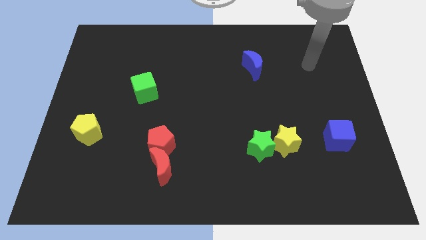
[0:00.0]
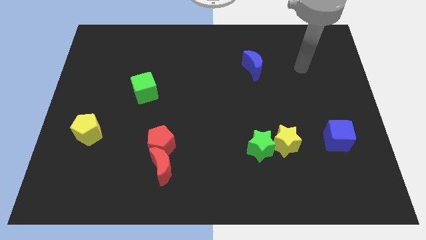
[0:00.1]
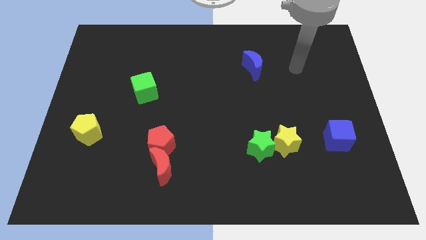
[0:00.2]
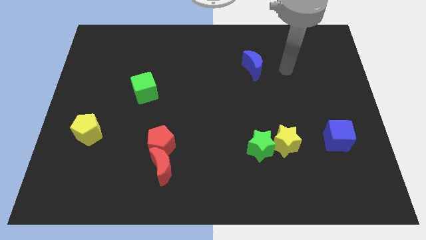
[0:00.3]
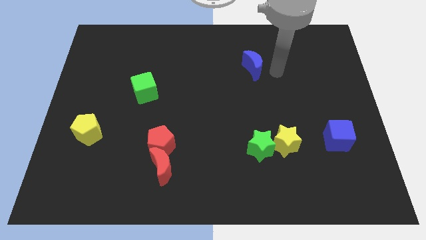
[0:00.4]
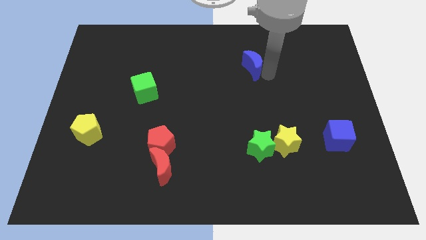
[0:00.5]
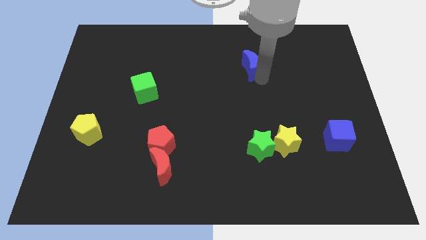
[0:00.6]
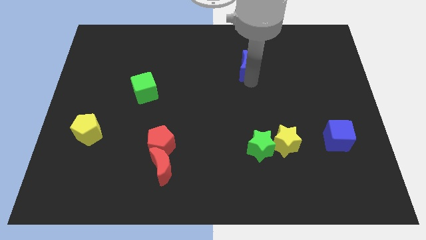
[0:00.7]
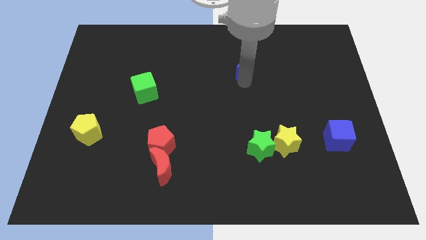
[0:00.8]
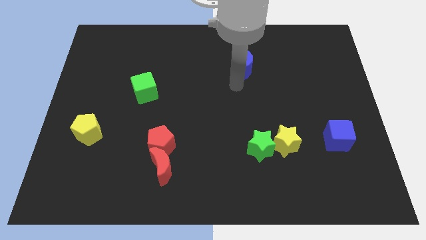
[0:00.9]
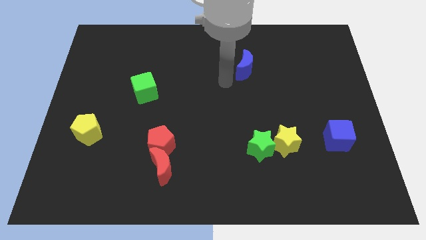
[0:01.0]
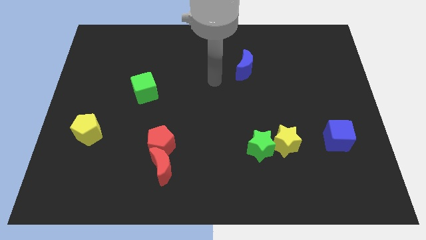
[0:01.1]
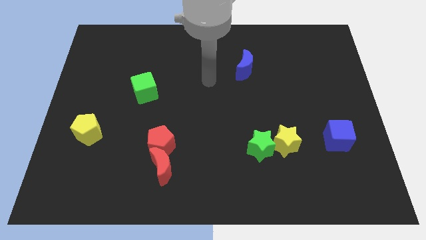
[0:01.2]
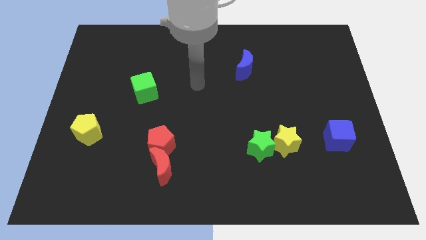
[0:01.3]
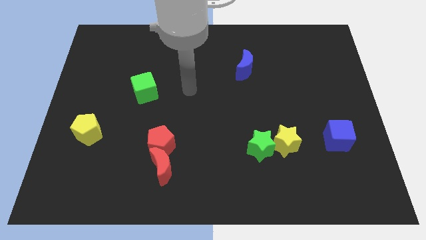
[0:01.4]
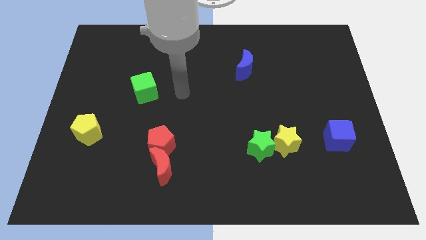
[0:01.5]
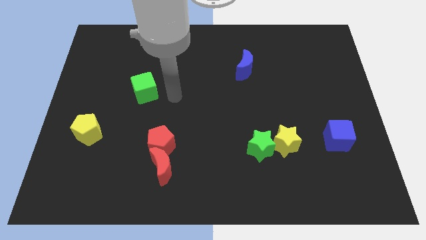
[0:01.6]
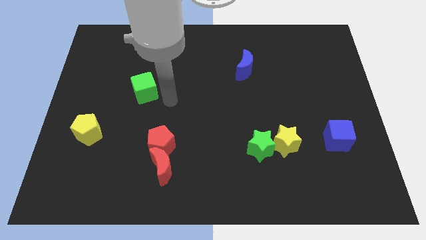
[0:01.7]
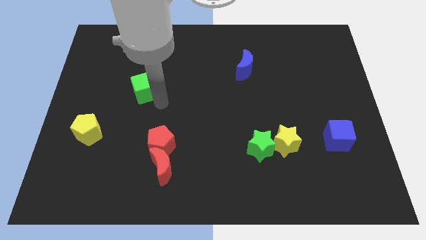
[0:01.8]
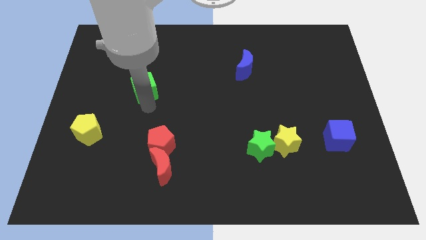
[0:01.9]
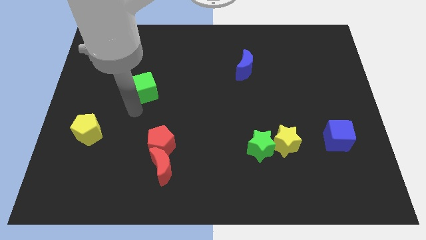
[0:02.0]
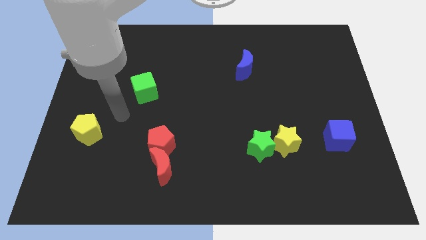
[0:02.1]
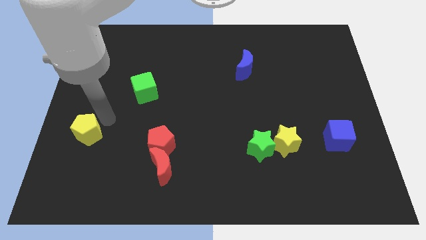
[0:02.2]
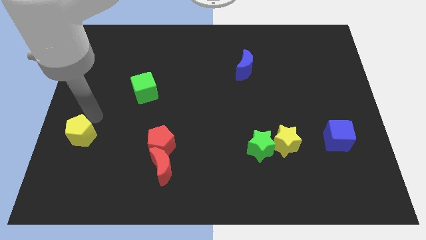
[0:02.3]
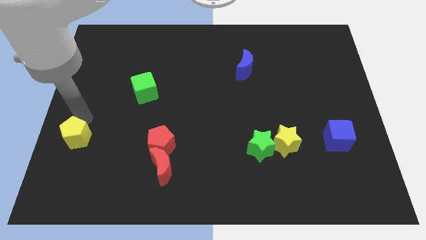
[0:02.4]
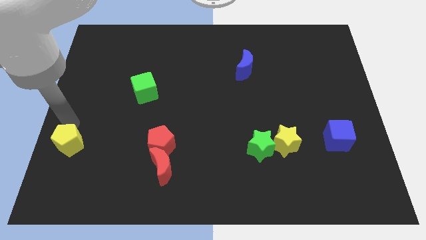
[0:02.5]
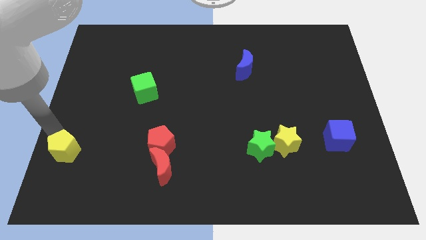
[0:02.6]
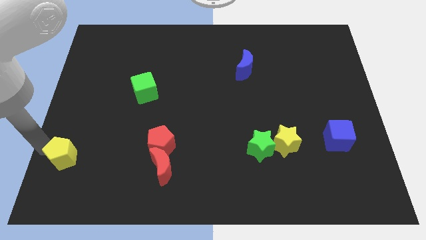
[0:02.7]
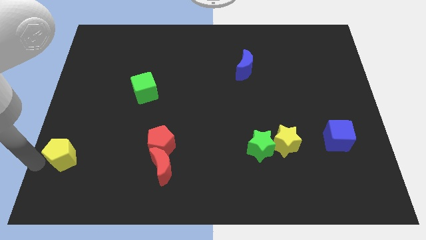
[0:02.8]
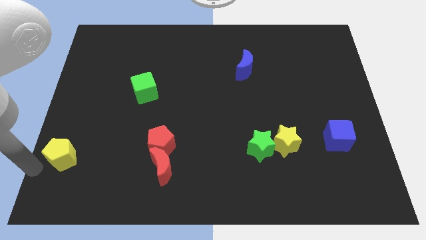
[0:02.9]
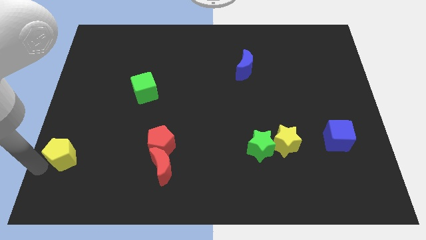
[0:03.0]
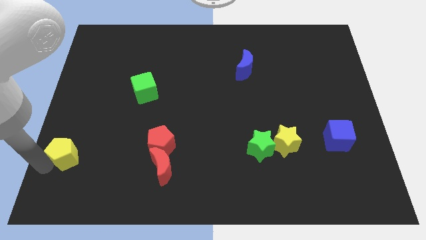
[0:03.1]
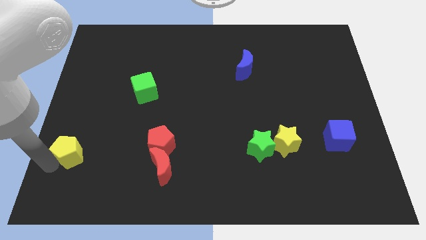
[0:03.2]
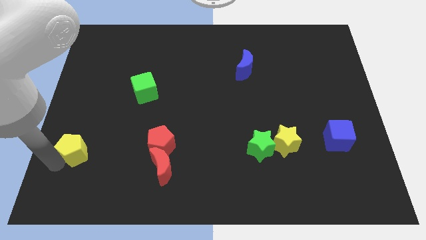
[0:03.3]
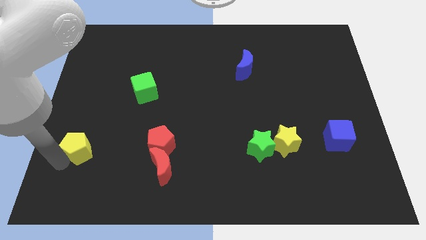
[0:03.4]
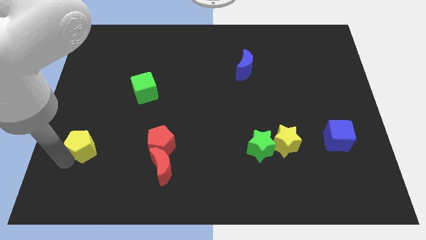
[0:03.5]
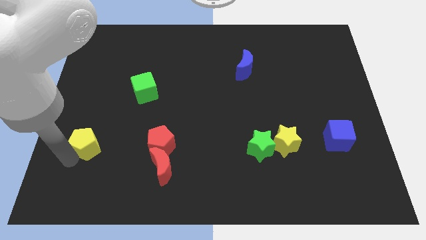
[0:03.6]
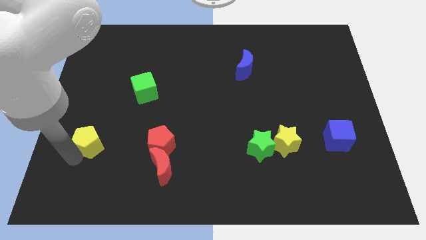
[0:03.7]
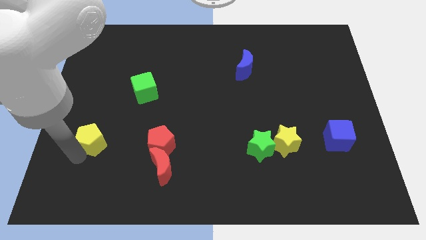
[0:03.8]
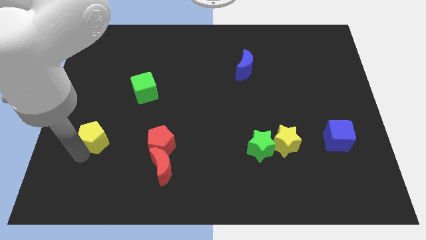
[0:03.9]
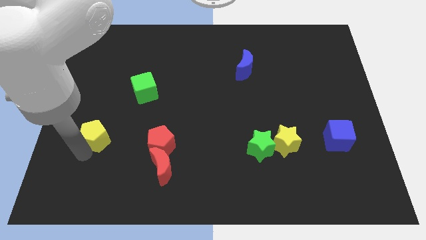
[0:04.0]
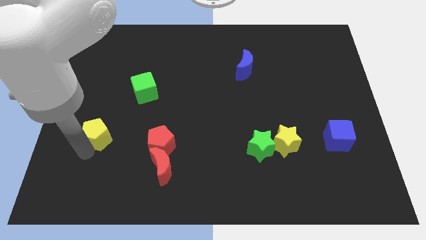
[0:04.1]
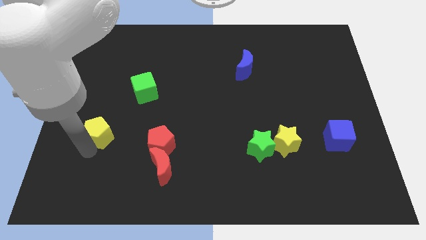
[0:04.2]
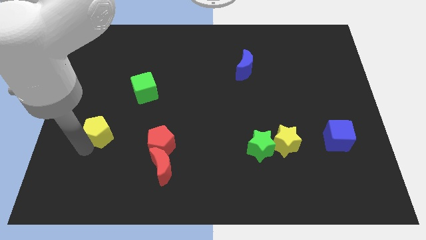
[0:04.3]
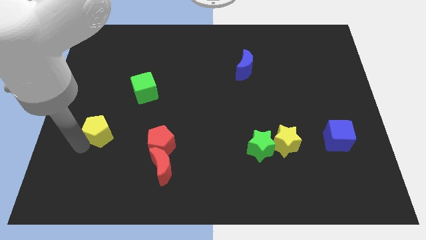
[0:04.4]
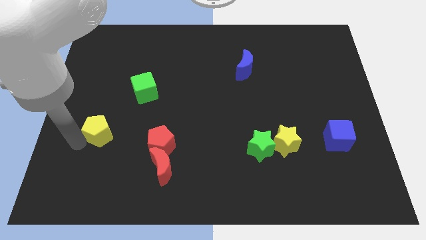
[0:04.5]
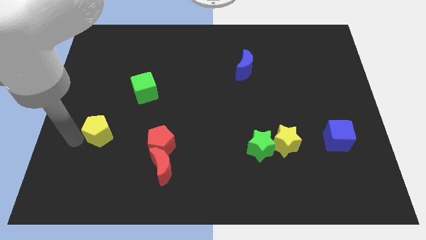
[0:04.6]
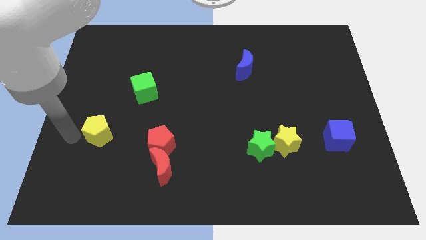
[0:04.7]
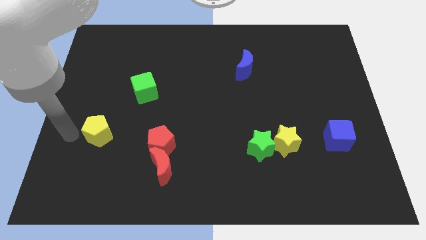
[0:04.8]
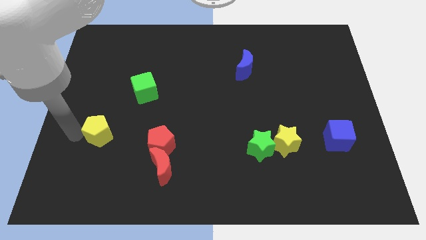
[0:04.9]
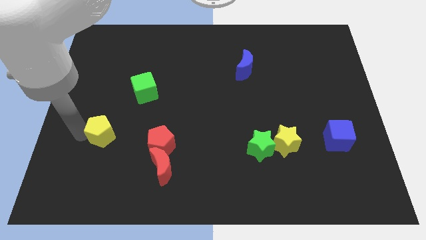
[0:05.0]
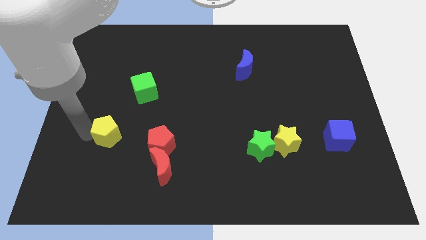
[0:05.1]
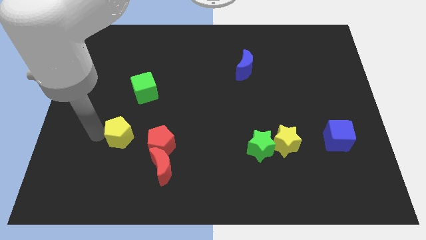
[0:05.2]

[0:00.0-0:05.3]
slightly move the yellow pentagon to the right

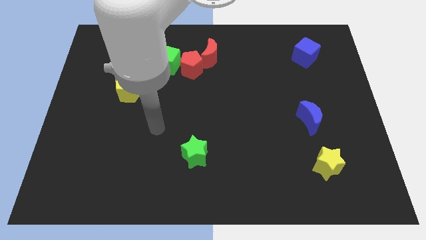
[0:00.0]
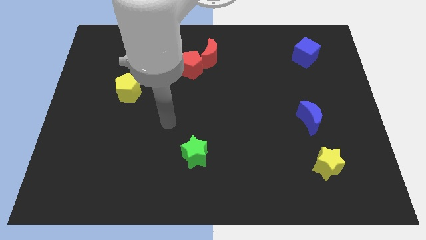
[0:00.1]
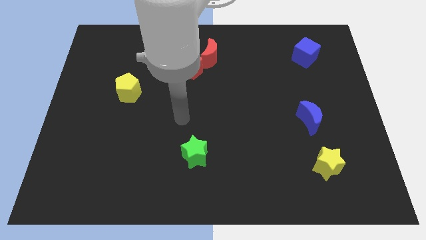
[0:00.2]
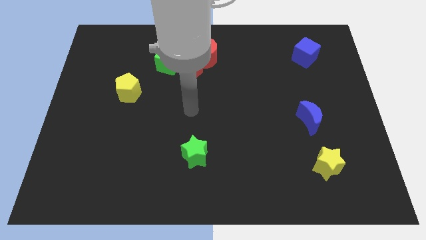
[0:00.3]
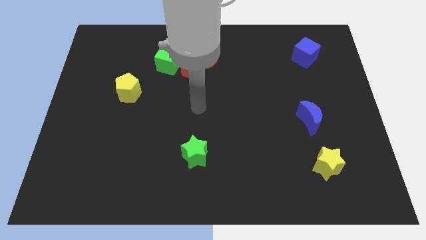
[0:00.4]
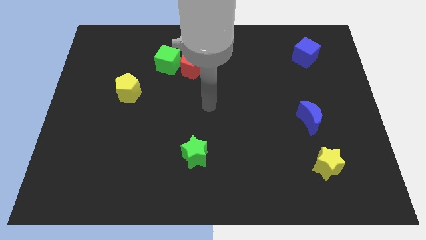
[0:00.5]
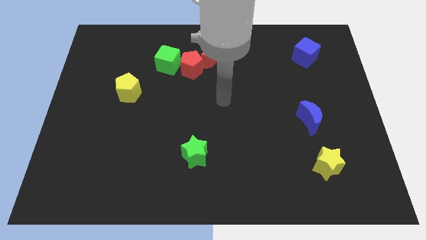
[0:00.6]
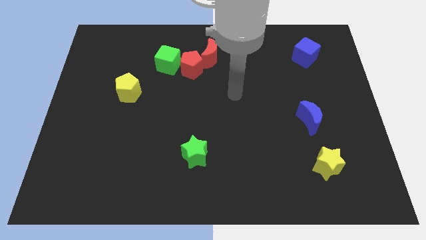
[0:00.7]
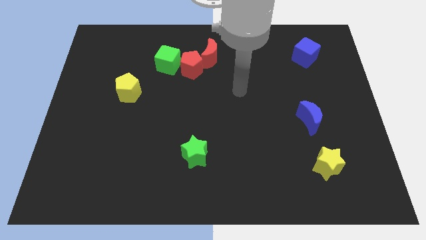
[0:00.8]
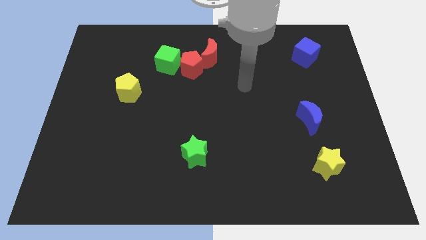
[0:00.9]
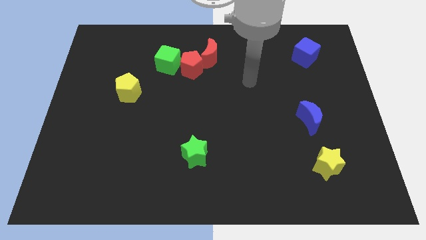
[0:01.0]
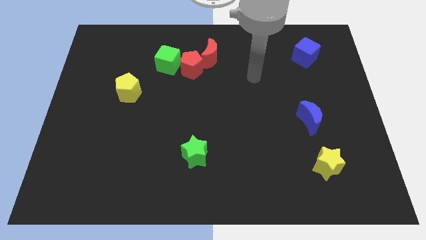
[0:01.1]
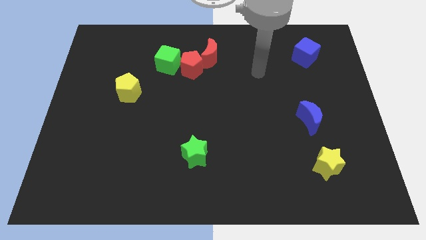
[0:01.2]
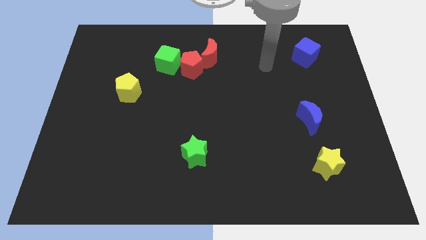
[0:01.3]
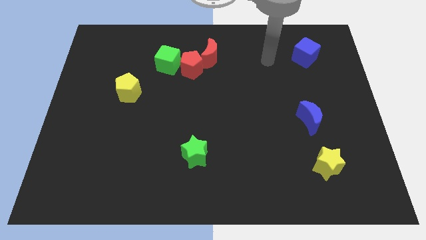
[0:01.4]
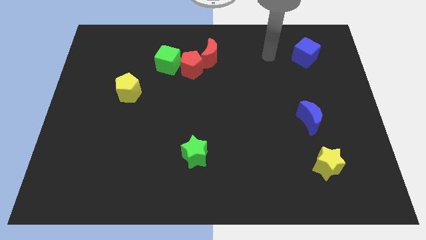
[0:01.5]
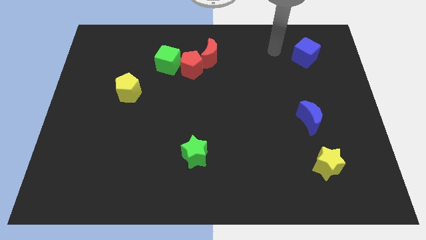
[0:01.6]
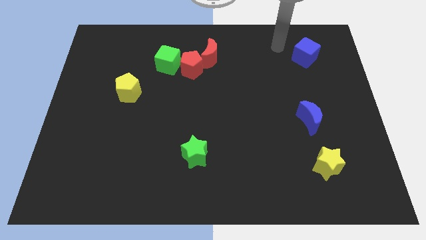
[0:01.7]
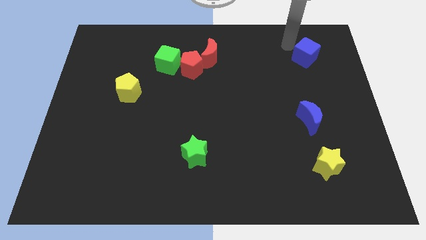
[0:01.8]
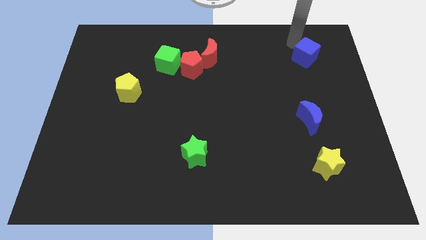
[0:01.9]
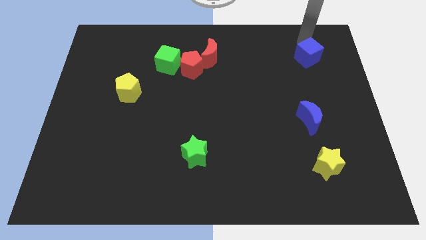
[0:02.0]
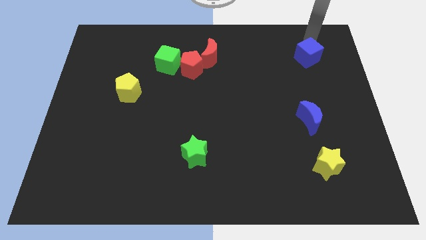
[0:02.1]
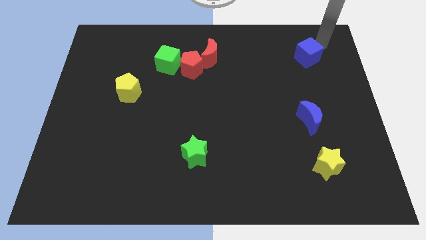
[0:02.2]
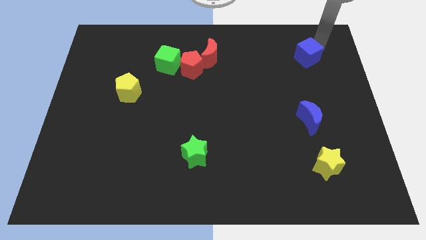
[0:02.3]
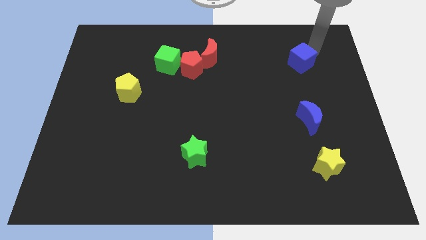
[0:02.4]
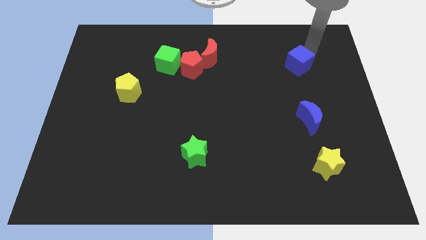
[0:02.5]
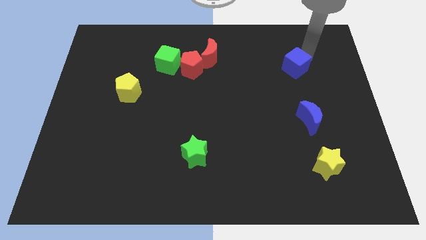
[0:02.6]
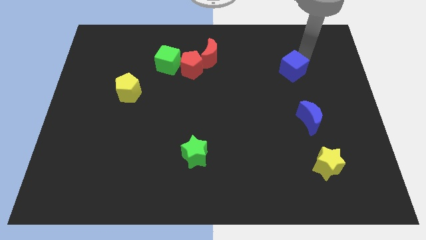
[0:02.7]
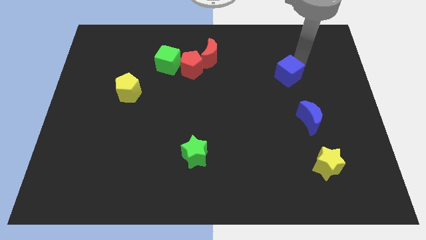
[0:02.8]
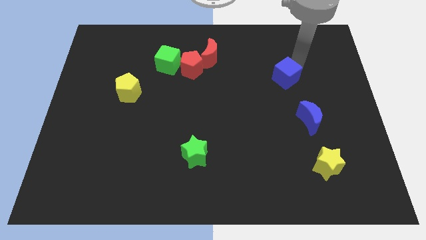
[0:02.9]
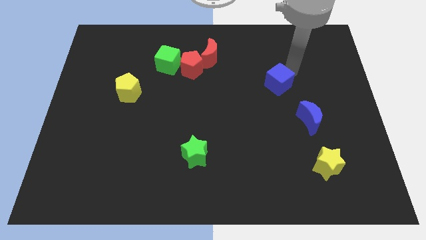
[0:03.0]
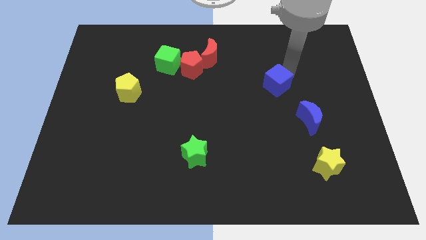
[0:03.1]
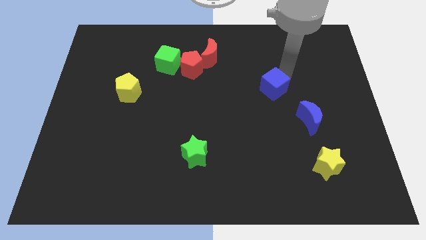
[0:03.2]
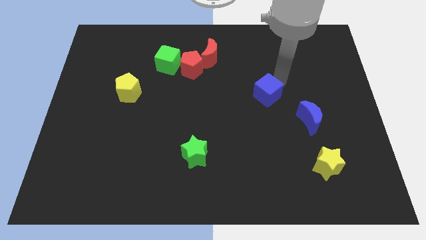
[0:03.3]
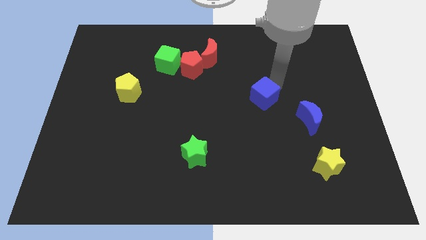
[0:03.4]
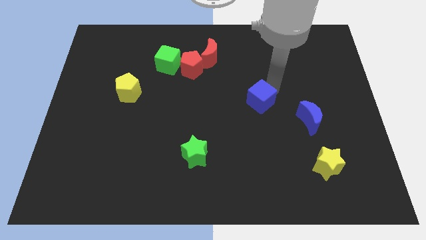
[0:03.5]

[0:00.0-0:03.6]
move the blue cube downwards and then left
